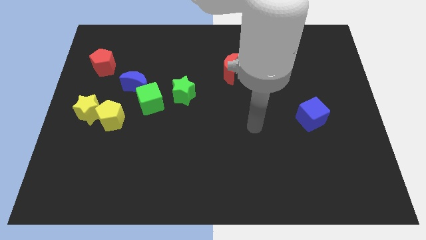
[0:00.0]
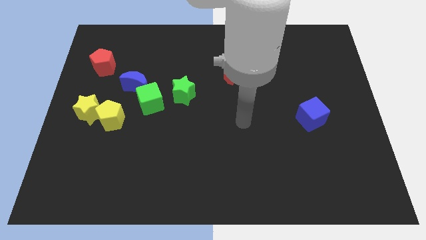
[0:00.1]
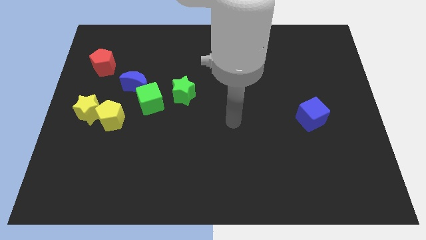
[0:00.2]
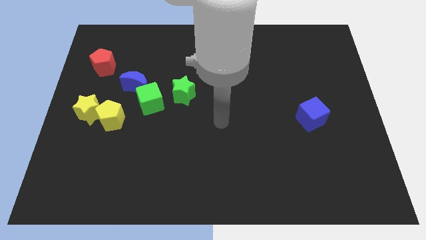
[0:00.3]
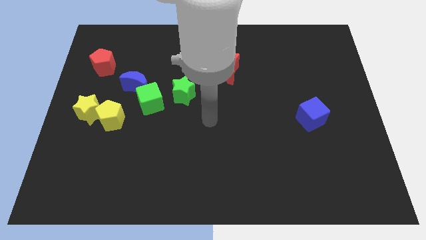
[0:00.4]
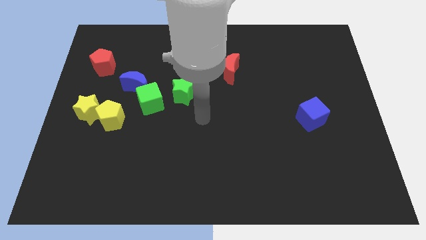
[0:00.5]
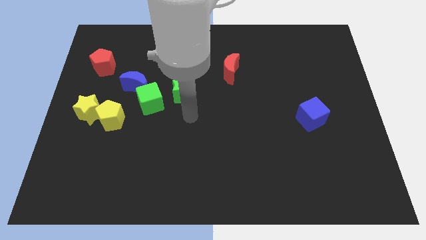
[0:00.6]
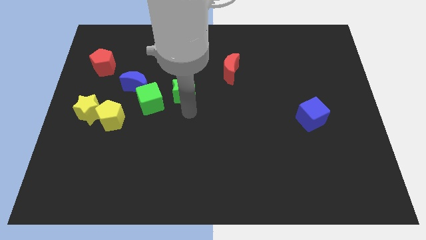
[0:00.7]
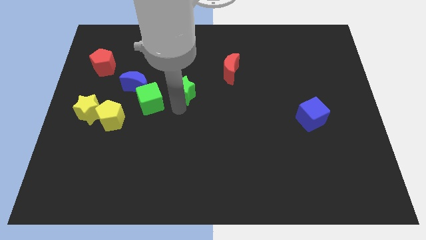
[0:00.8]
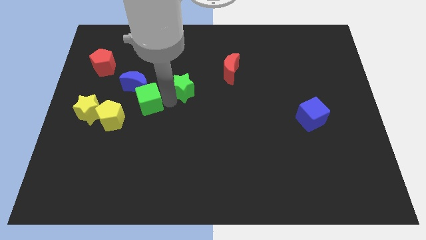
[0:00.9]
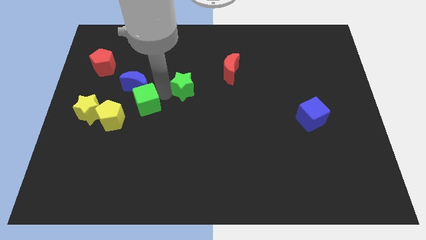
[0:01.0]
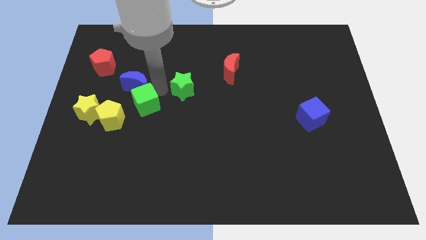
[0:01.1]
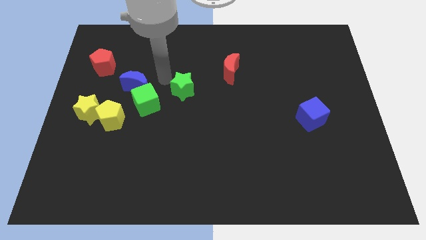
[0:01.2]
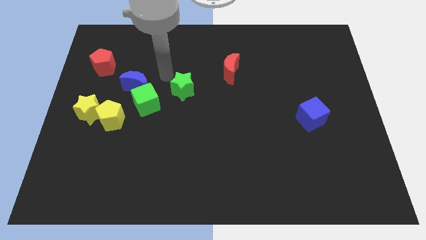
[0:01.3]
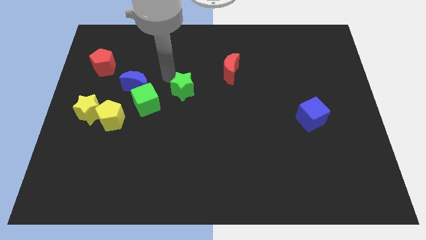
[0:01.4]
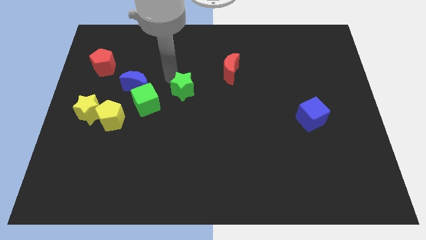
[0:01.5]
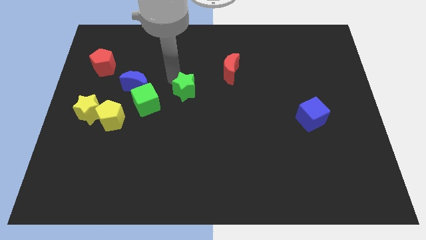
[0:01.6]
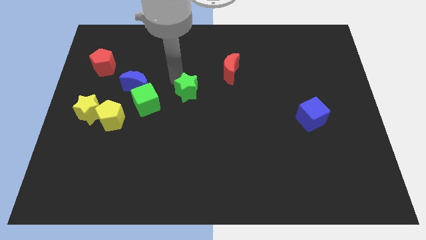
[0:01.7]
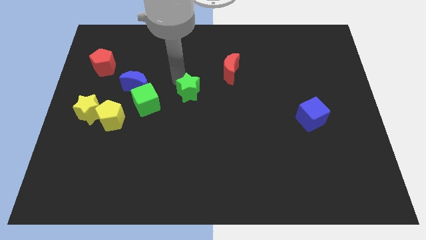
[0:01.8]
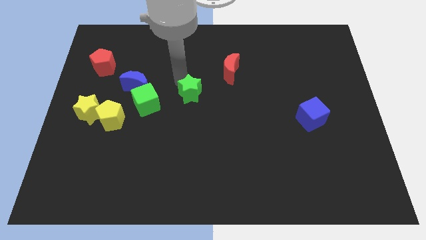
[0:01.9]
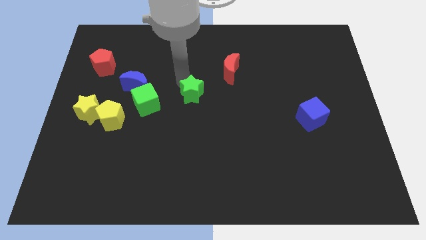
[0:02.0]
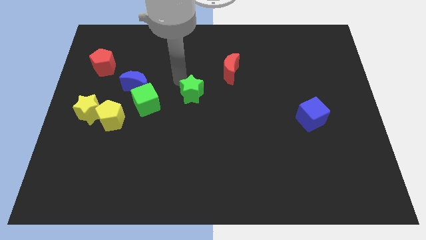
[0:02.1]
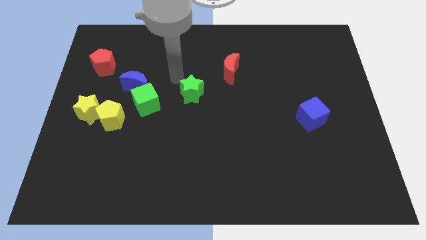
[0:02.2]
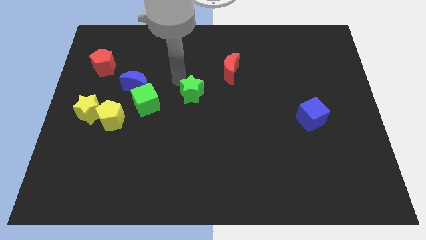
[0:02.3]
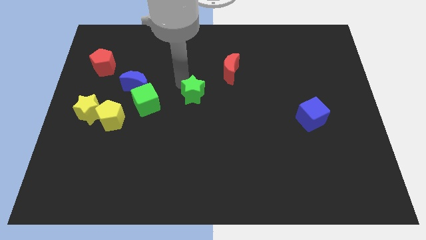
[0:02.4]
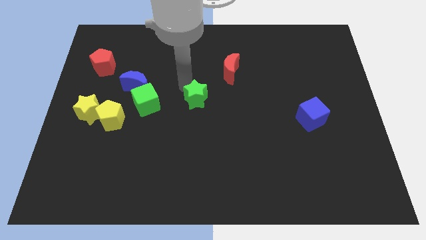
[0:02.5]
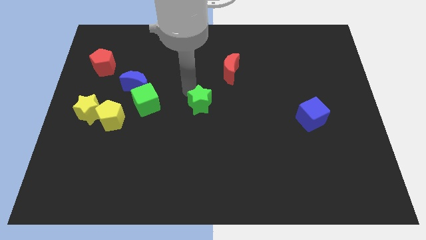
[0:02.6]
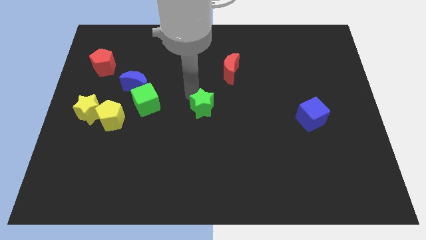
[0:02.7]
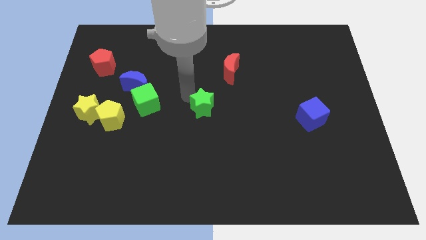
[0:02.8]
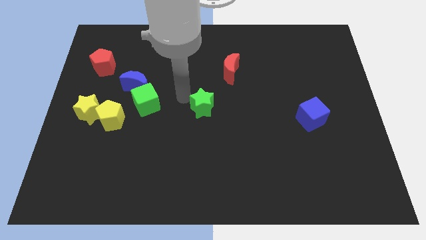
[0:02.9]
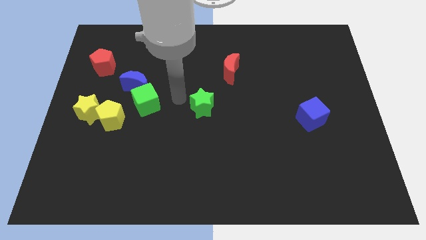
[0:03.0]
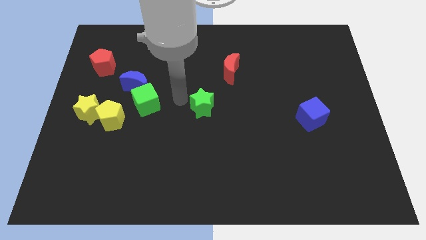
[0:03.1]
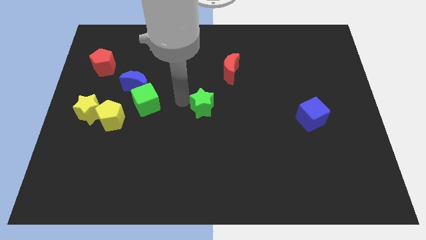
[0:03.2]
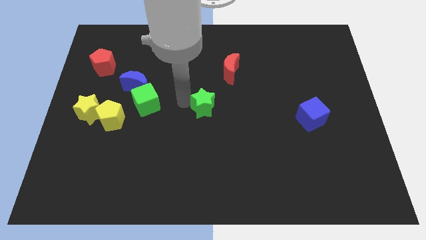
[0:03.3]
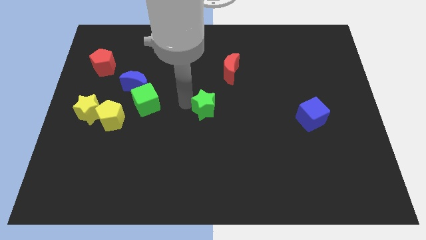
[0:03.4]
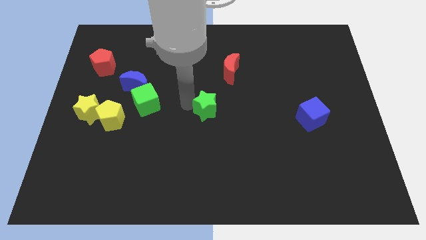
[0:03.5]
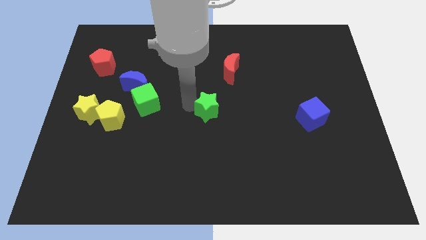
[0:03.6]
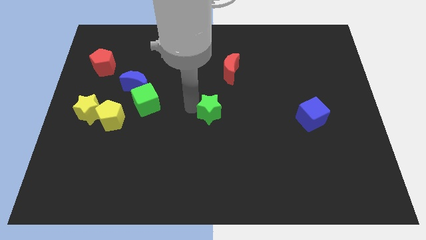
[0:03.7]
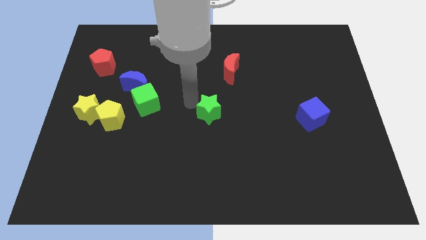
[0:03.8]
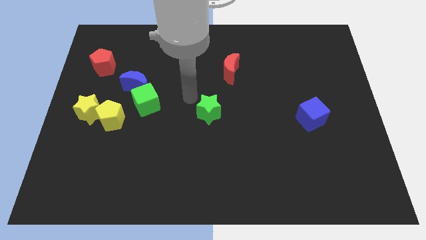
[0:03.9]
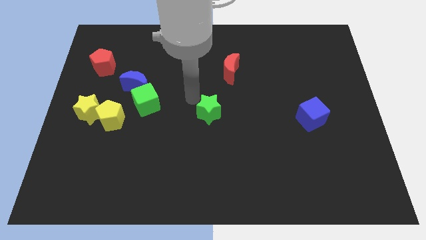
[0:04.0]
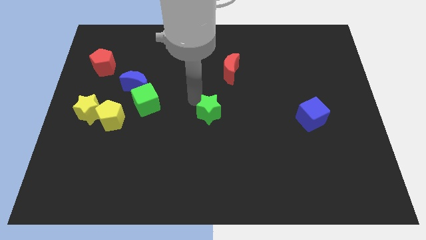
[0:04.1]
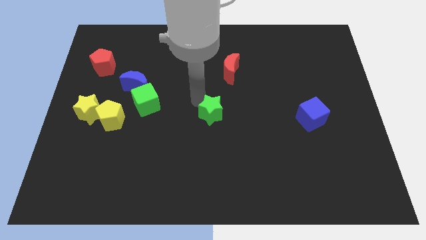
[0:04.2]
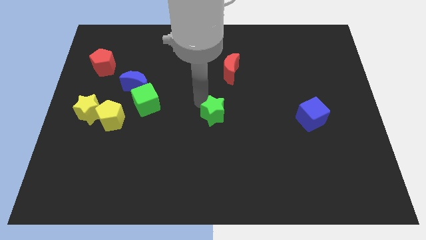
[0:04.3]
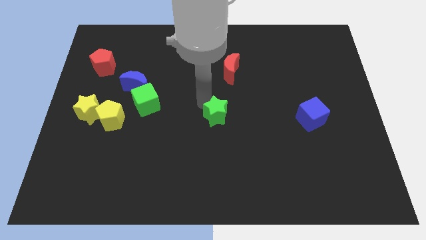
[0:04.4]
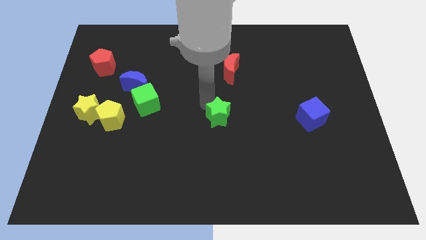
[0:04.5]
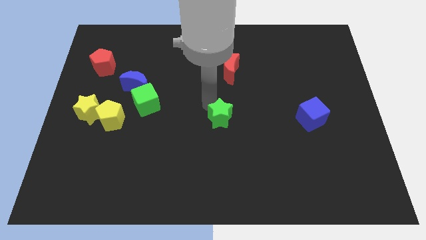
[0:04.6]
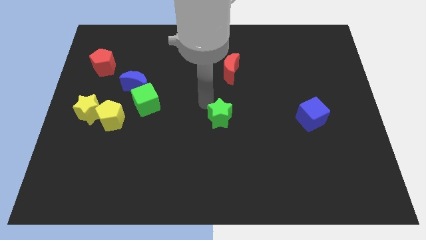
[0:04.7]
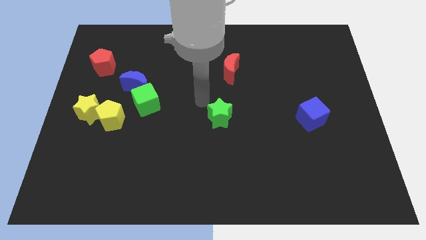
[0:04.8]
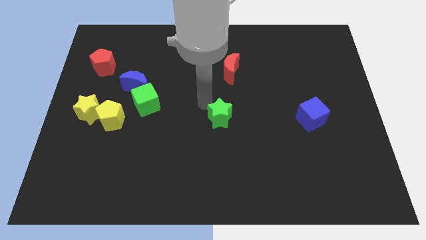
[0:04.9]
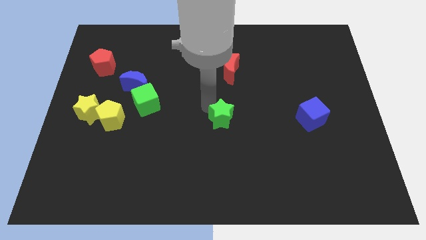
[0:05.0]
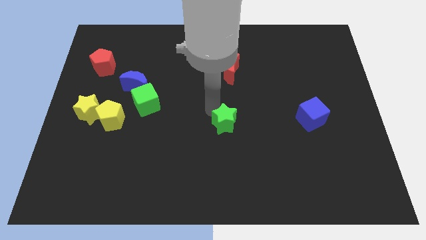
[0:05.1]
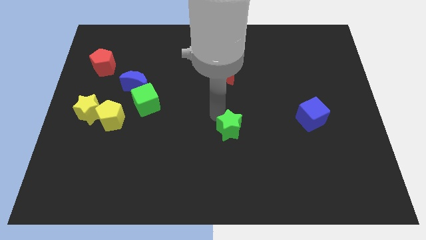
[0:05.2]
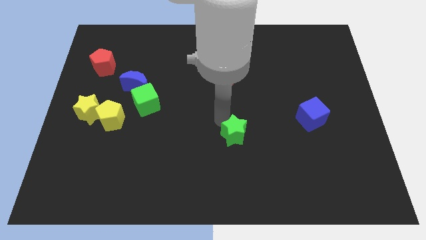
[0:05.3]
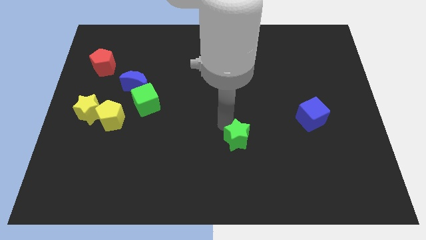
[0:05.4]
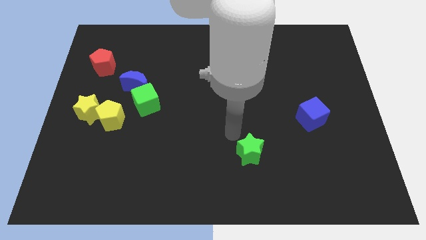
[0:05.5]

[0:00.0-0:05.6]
push the green star down and right

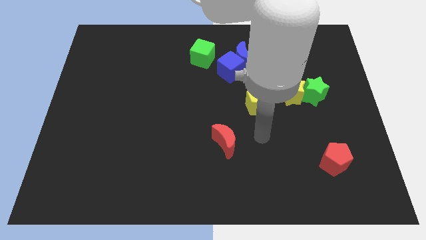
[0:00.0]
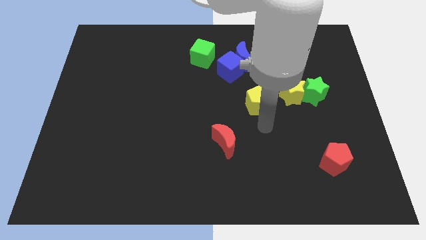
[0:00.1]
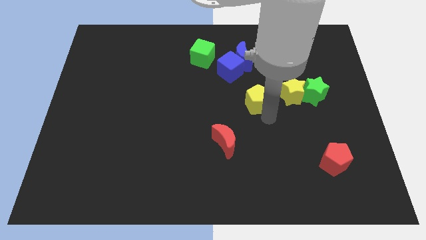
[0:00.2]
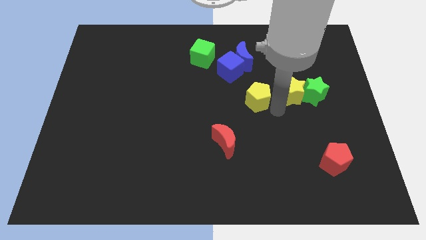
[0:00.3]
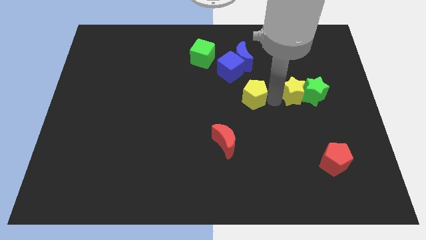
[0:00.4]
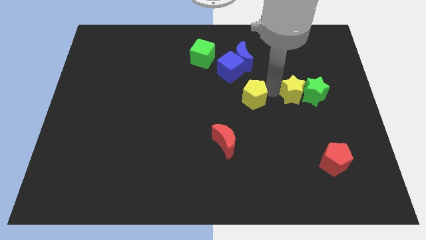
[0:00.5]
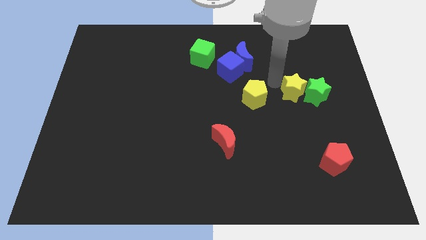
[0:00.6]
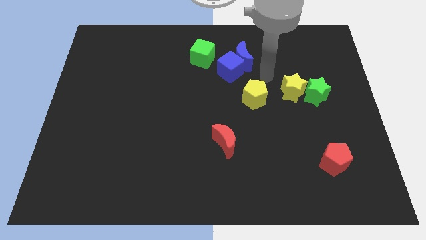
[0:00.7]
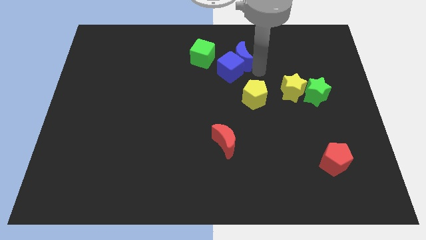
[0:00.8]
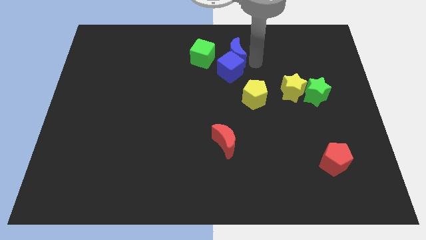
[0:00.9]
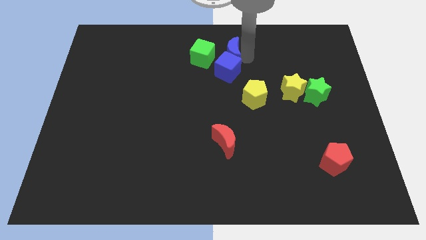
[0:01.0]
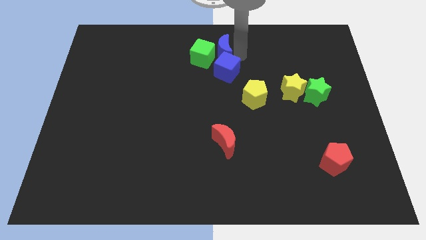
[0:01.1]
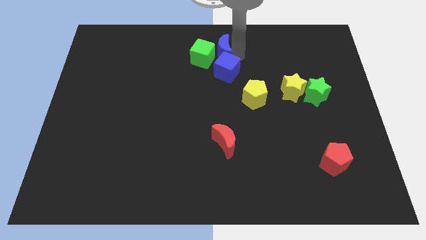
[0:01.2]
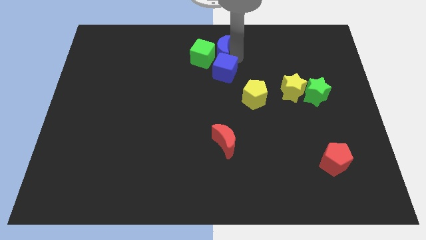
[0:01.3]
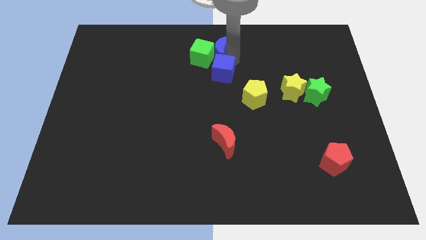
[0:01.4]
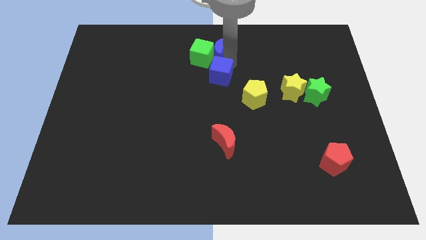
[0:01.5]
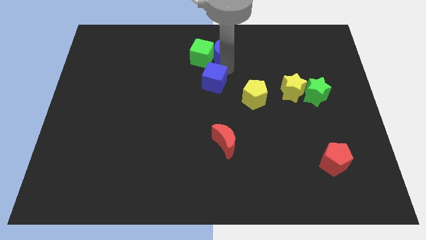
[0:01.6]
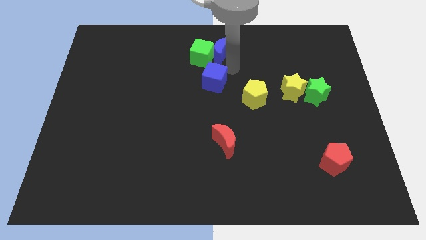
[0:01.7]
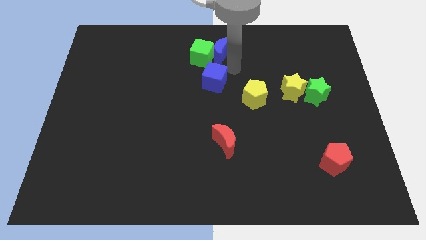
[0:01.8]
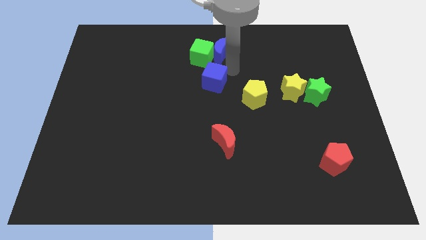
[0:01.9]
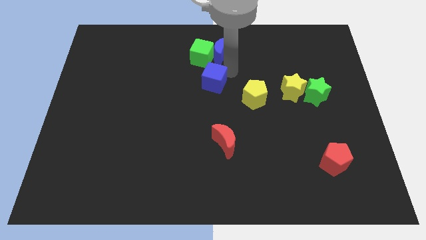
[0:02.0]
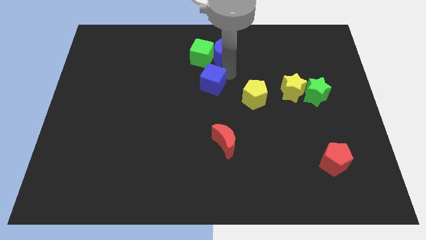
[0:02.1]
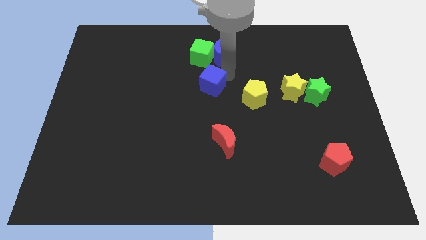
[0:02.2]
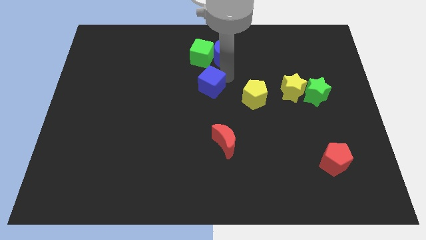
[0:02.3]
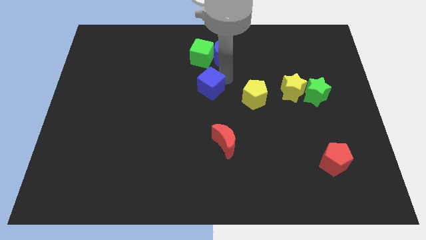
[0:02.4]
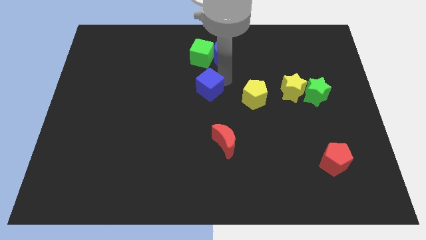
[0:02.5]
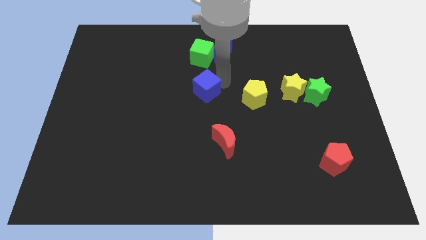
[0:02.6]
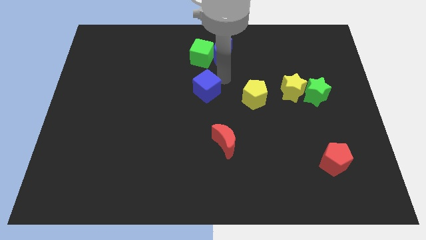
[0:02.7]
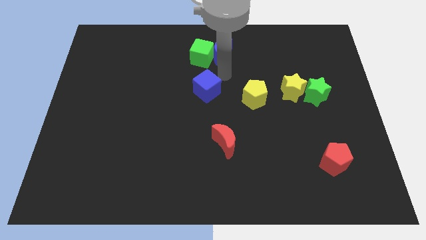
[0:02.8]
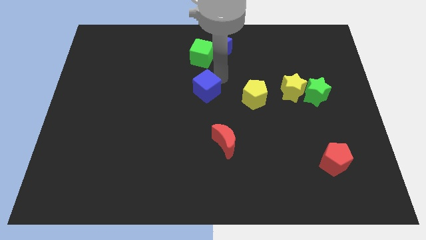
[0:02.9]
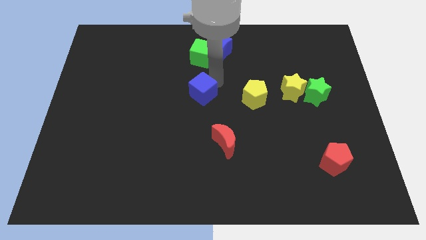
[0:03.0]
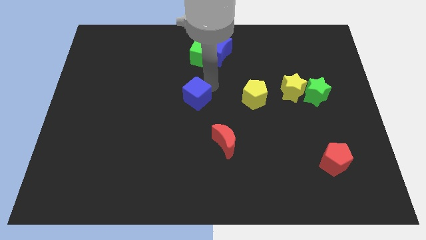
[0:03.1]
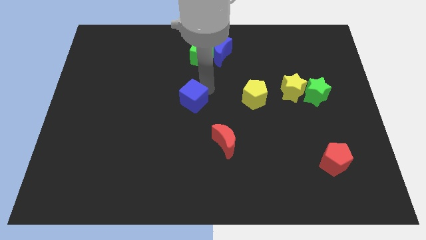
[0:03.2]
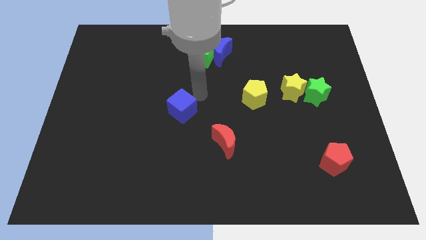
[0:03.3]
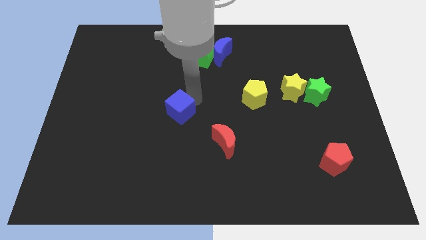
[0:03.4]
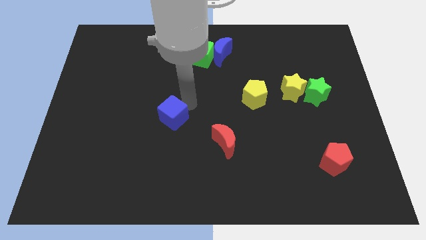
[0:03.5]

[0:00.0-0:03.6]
push the blue cube down and left
